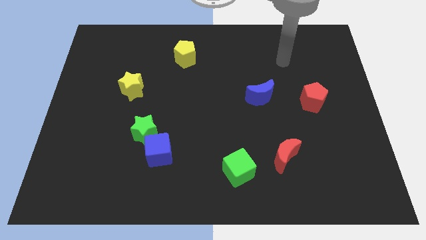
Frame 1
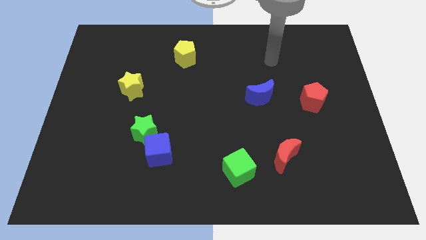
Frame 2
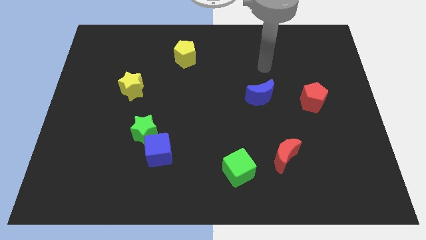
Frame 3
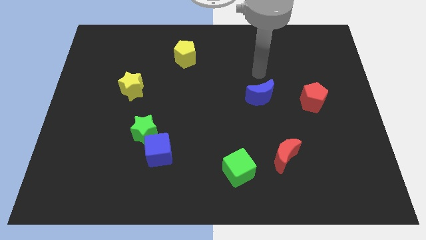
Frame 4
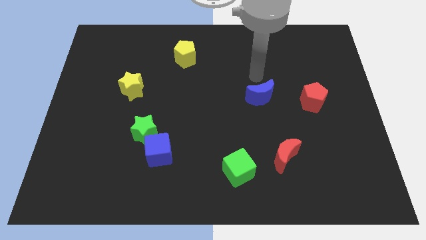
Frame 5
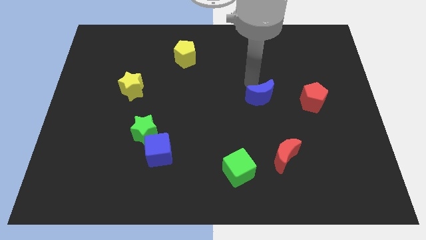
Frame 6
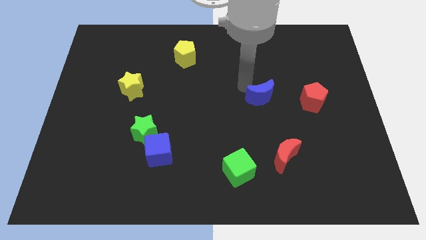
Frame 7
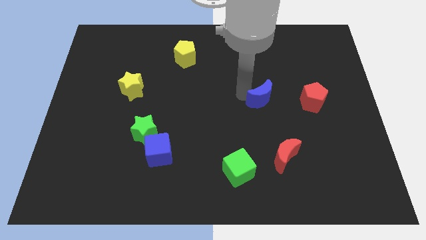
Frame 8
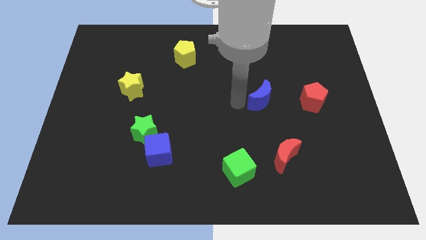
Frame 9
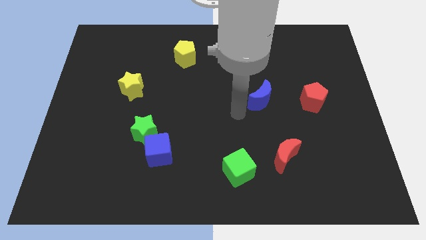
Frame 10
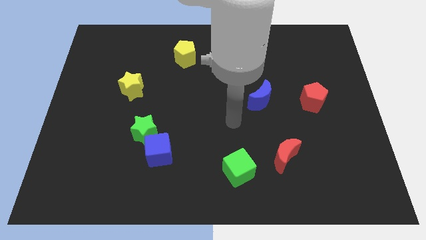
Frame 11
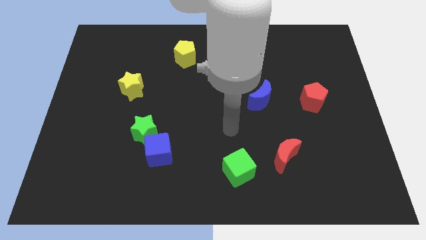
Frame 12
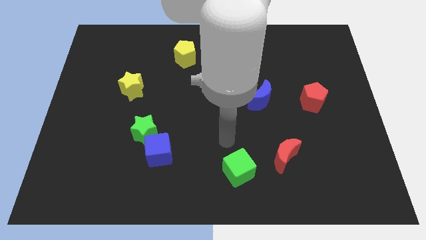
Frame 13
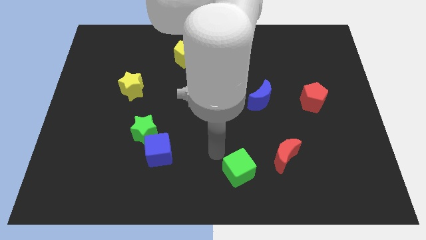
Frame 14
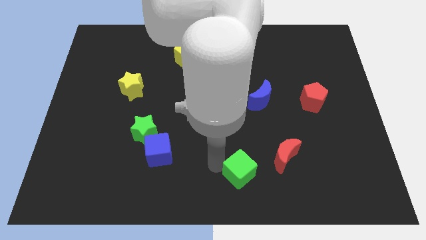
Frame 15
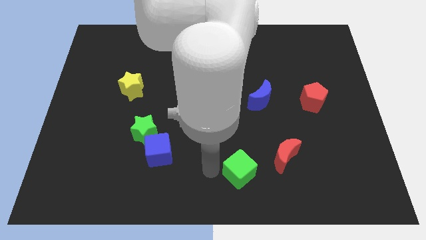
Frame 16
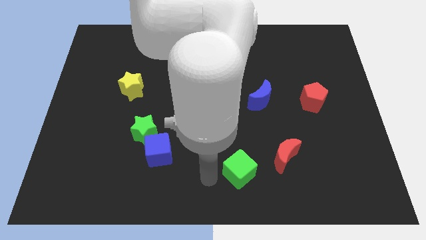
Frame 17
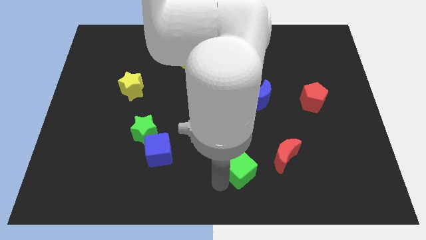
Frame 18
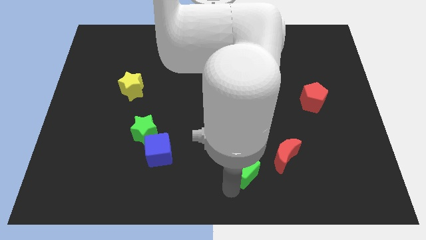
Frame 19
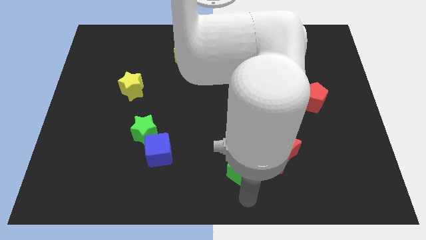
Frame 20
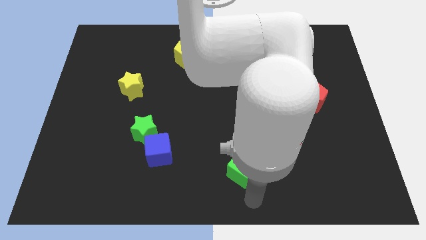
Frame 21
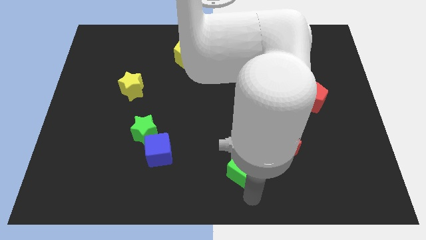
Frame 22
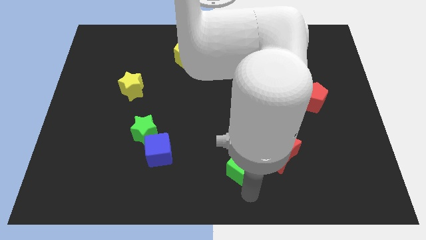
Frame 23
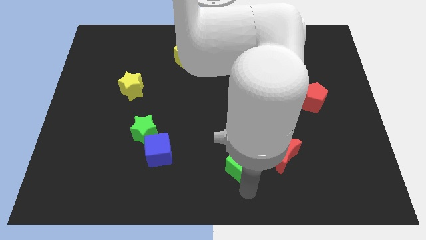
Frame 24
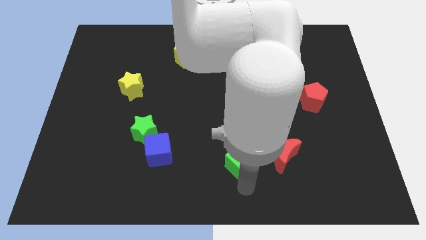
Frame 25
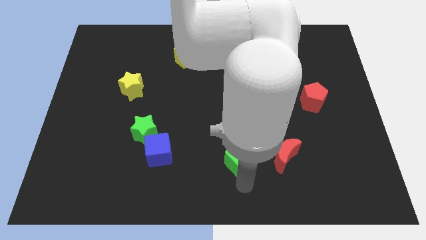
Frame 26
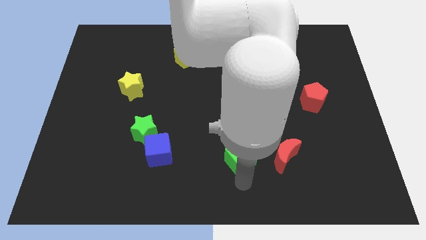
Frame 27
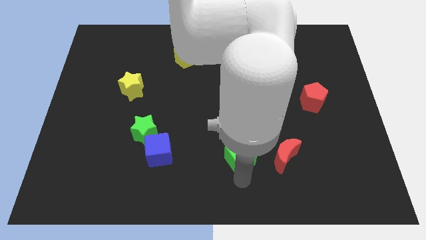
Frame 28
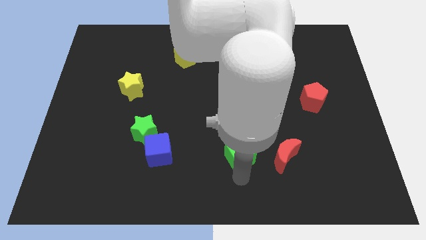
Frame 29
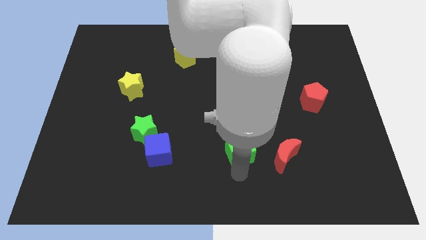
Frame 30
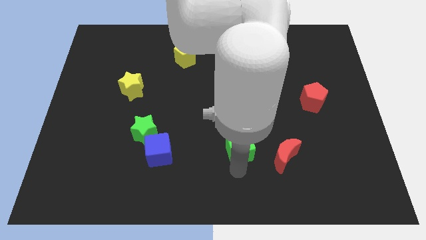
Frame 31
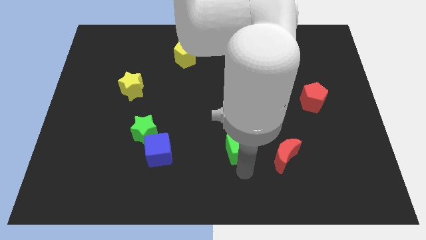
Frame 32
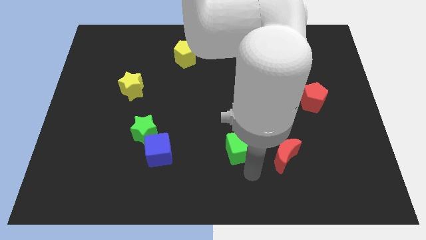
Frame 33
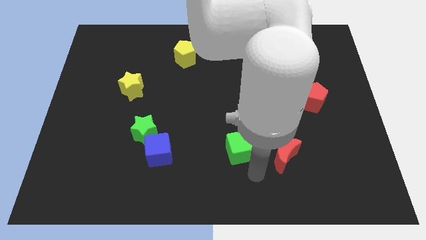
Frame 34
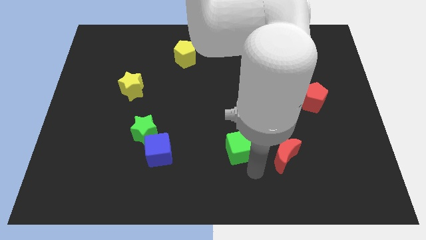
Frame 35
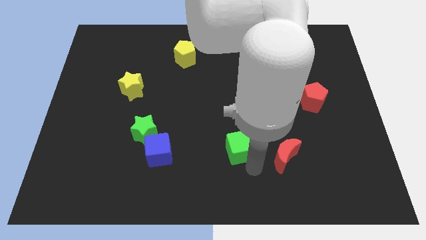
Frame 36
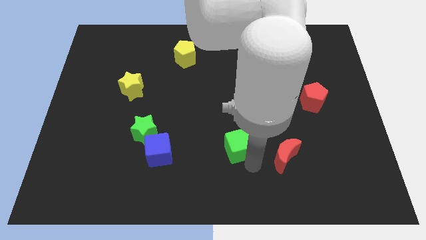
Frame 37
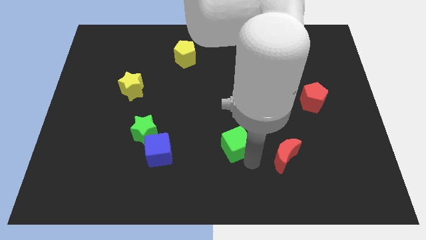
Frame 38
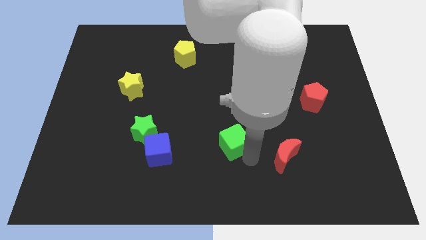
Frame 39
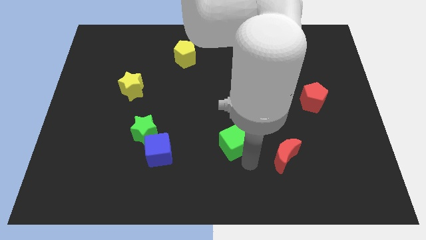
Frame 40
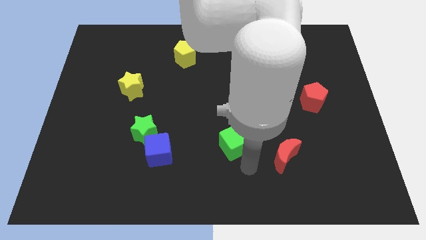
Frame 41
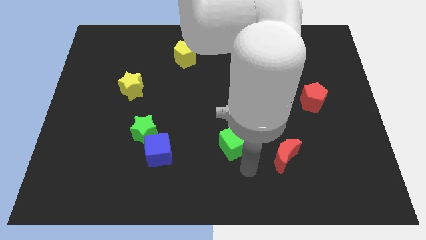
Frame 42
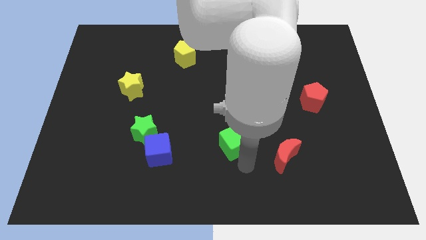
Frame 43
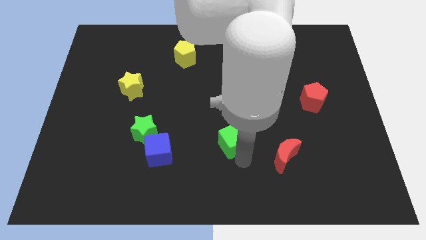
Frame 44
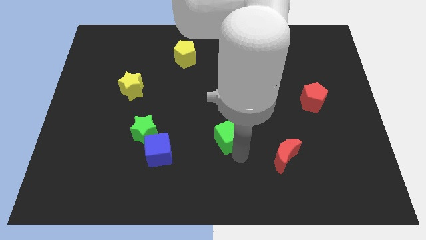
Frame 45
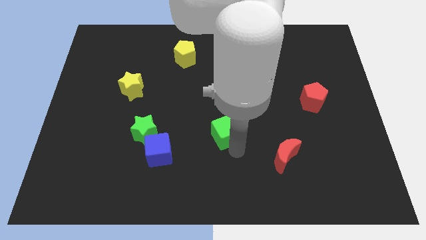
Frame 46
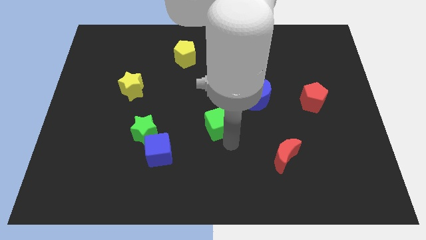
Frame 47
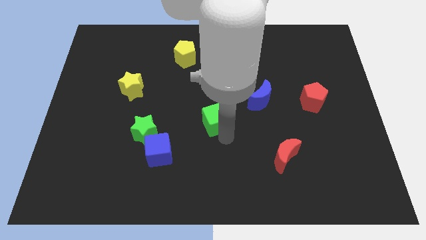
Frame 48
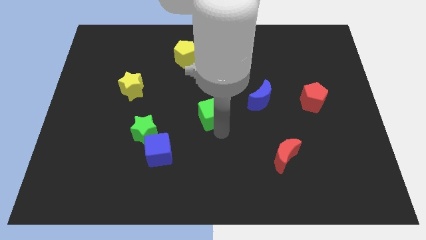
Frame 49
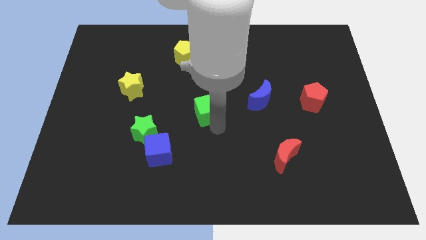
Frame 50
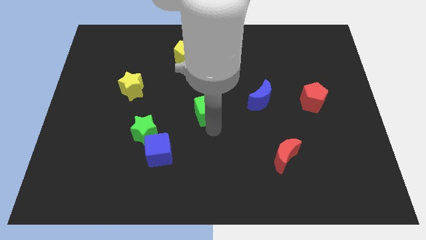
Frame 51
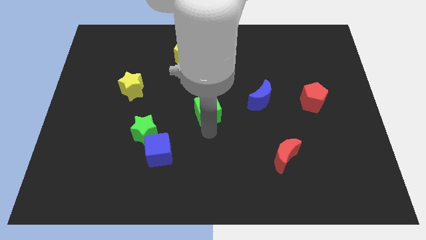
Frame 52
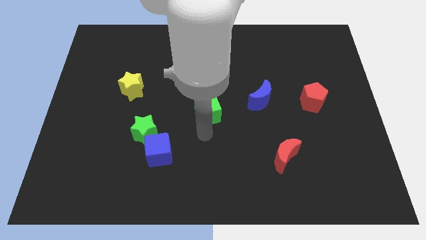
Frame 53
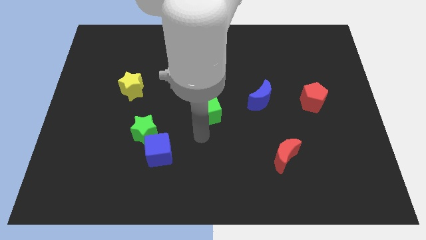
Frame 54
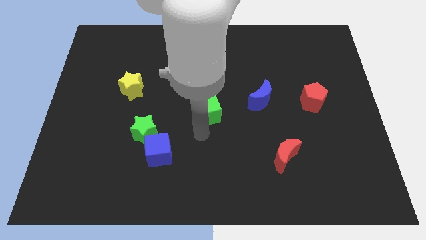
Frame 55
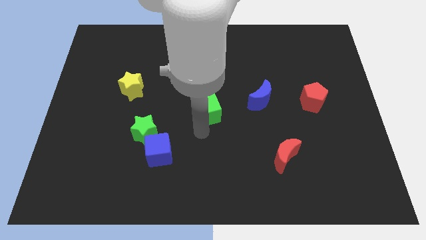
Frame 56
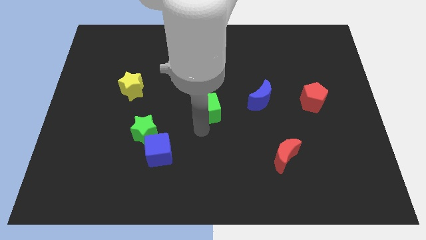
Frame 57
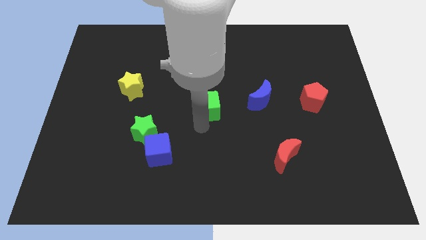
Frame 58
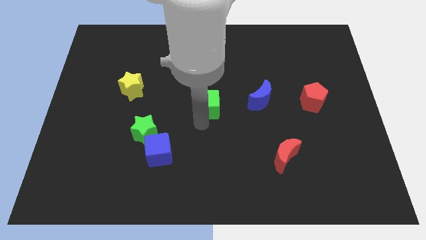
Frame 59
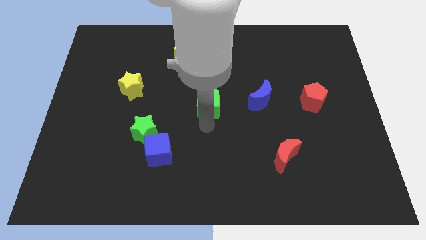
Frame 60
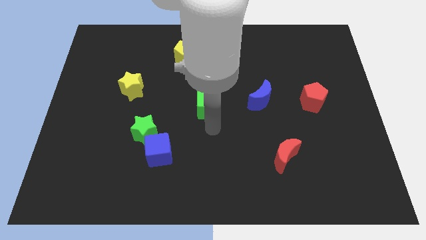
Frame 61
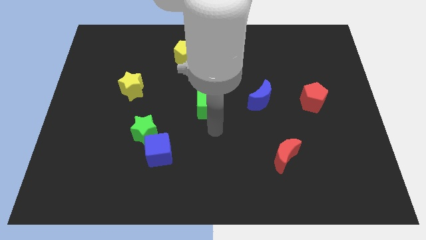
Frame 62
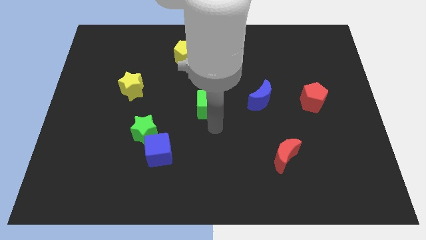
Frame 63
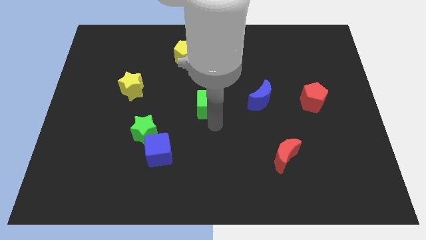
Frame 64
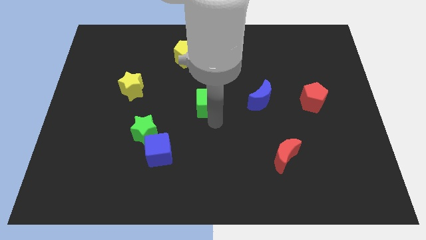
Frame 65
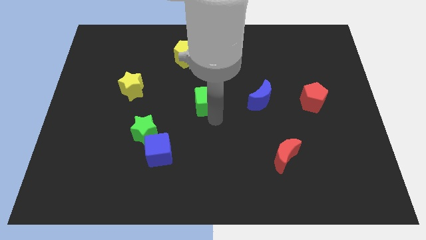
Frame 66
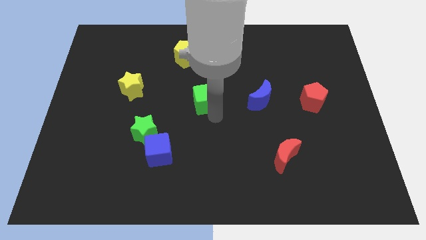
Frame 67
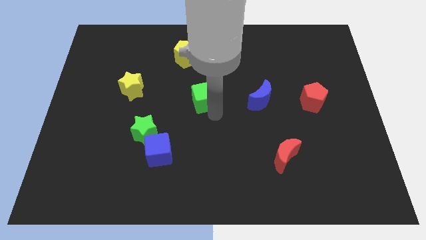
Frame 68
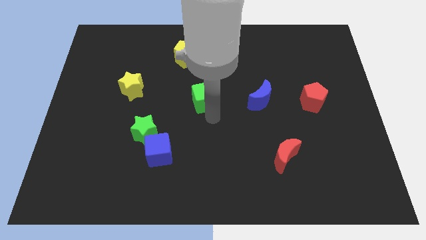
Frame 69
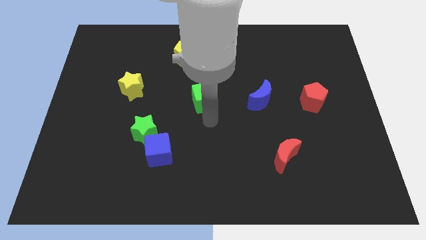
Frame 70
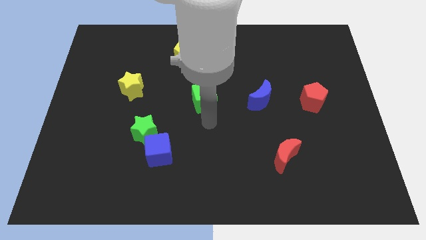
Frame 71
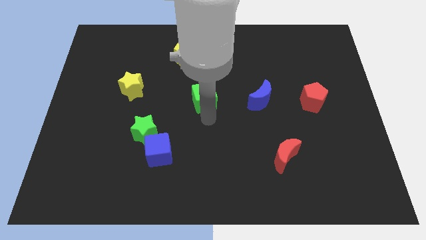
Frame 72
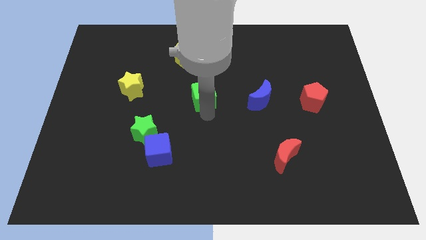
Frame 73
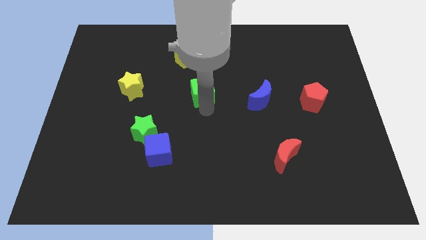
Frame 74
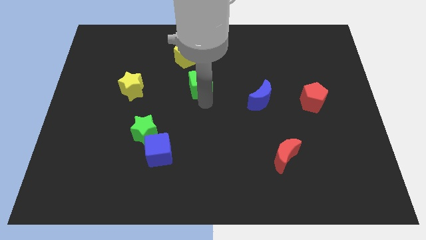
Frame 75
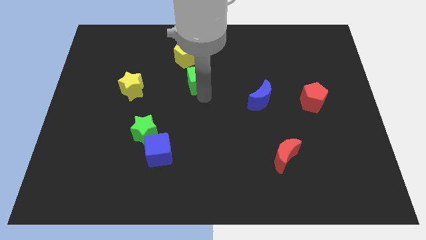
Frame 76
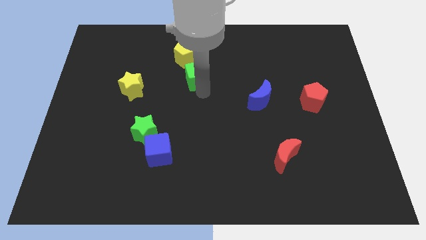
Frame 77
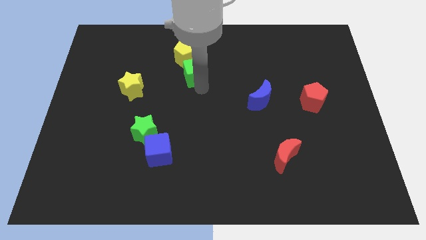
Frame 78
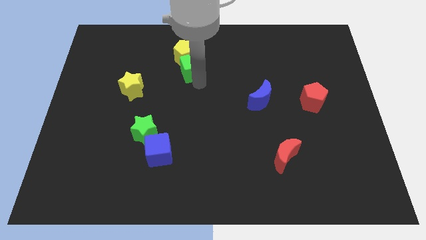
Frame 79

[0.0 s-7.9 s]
put the green cube close to the yellow pentagon
